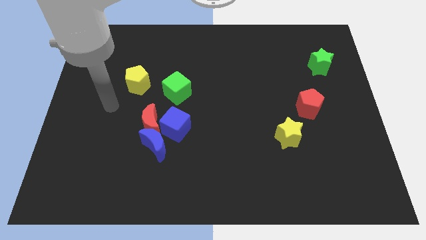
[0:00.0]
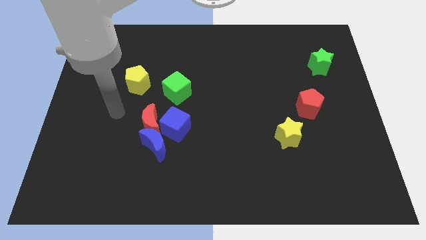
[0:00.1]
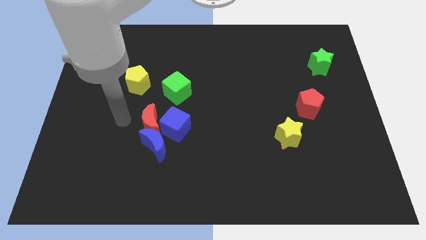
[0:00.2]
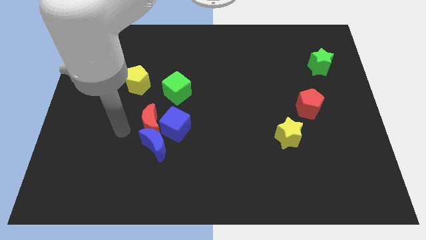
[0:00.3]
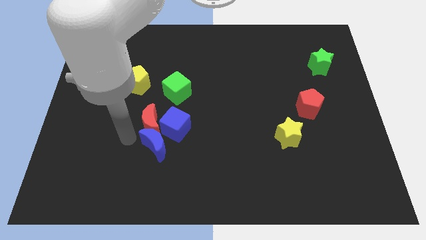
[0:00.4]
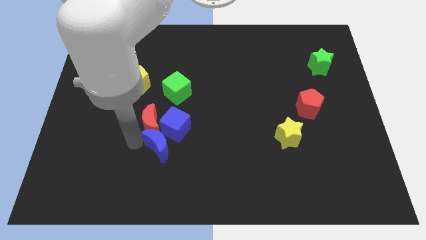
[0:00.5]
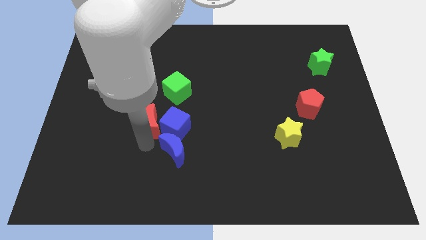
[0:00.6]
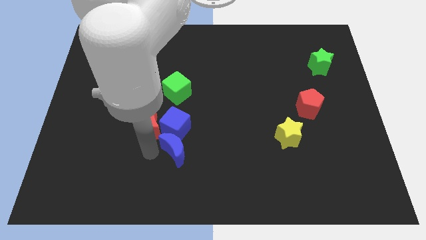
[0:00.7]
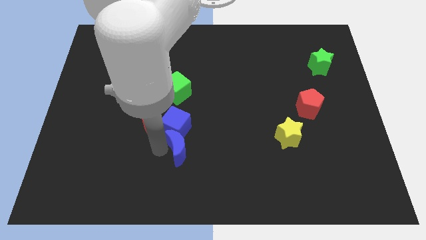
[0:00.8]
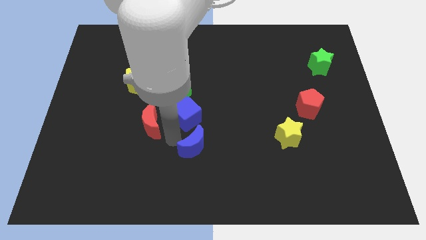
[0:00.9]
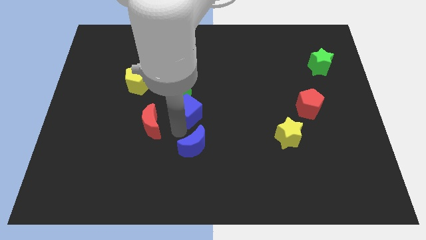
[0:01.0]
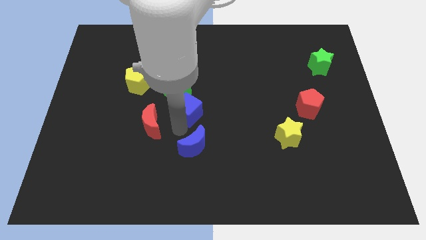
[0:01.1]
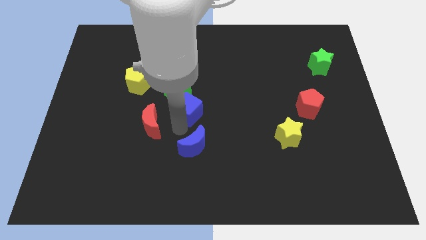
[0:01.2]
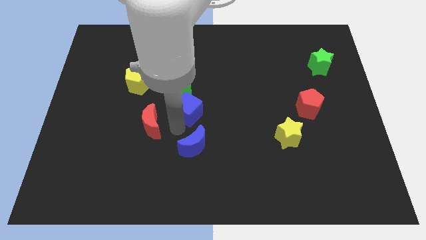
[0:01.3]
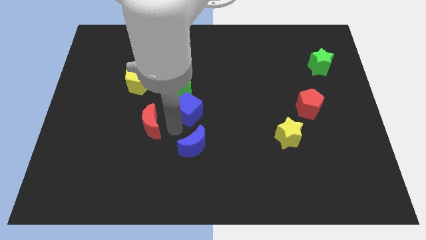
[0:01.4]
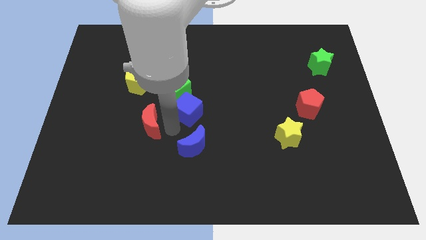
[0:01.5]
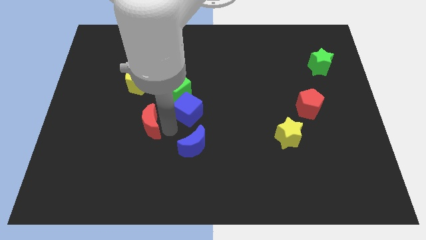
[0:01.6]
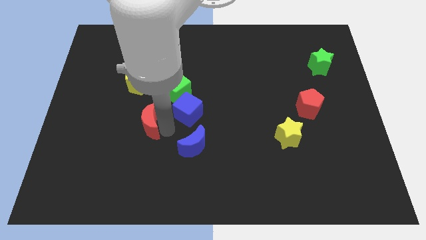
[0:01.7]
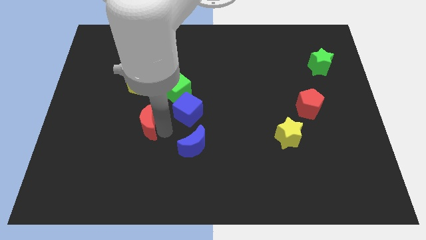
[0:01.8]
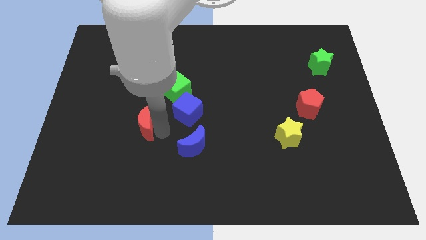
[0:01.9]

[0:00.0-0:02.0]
move the red moon away from the blue cube and blue moon

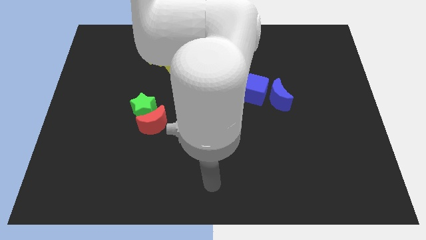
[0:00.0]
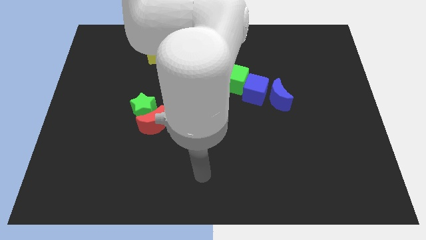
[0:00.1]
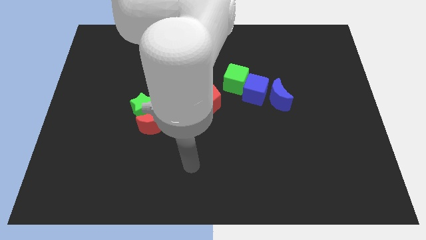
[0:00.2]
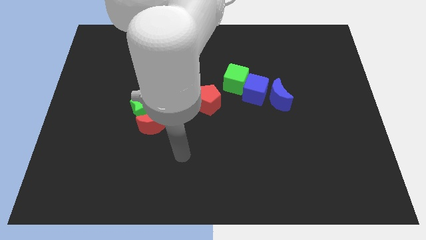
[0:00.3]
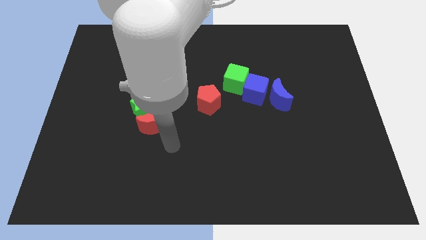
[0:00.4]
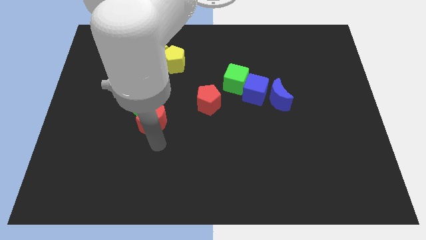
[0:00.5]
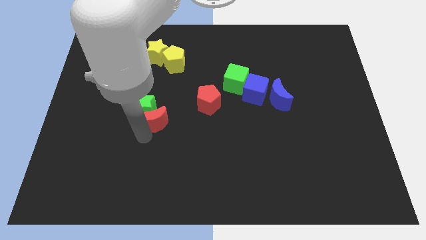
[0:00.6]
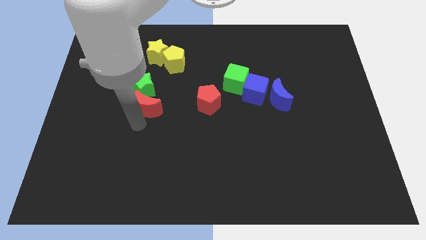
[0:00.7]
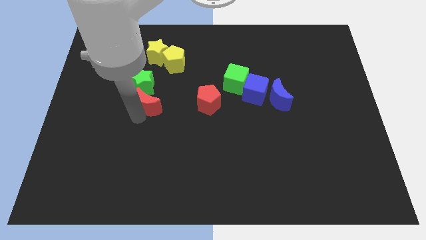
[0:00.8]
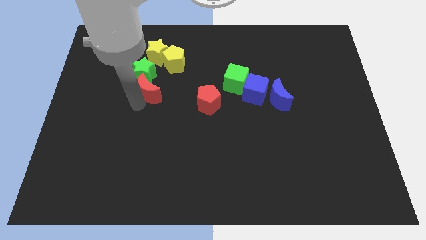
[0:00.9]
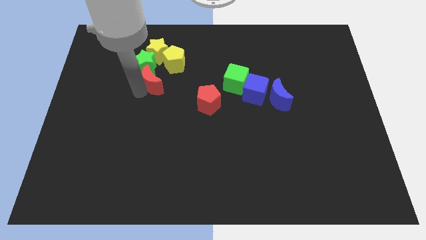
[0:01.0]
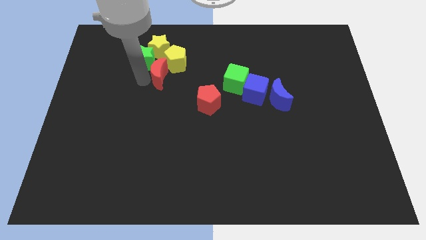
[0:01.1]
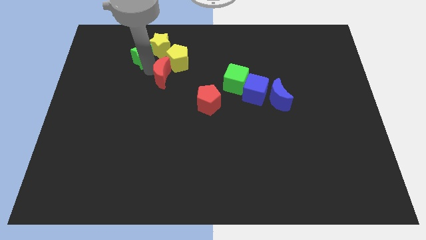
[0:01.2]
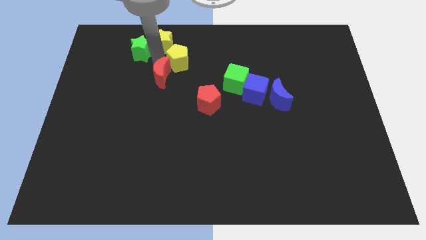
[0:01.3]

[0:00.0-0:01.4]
pull the red moon apart from the green star

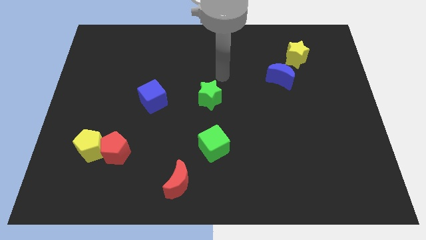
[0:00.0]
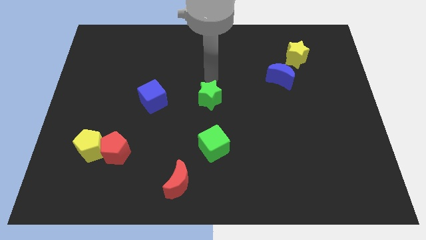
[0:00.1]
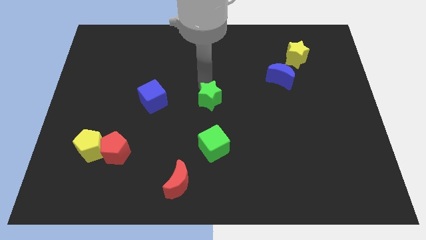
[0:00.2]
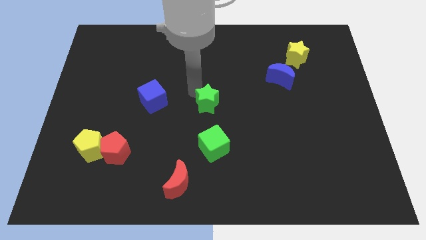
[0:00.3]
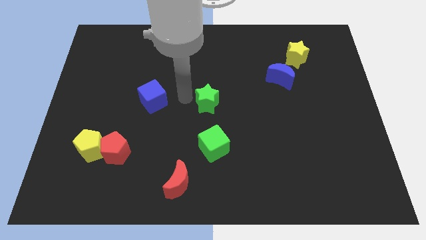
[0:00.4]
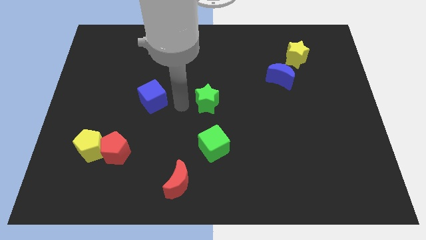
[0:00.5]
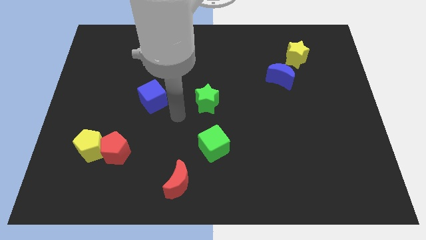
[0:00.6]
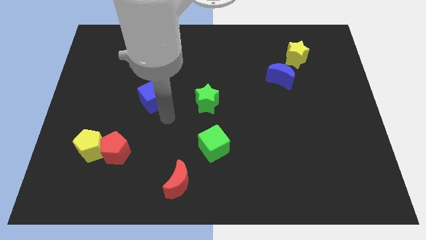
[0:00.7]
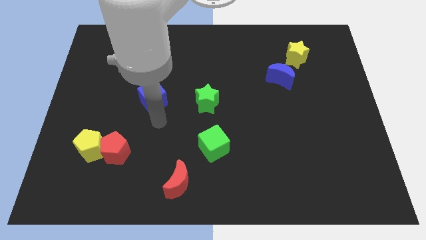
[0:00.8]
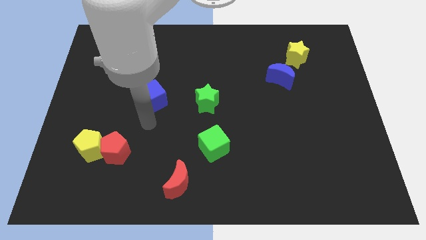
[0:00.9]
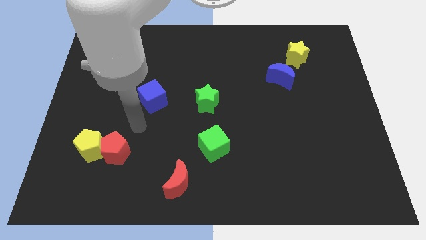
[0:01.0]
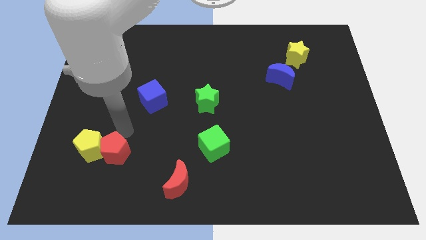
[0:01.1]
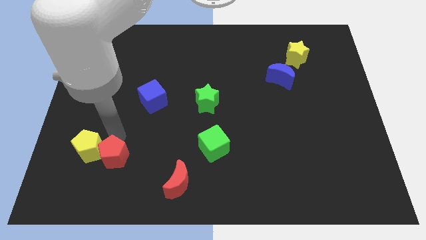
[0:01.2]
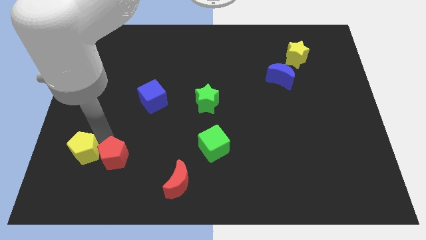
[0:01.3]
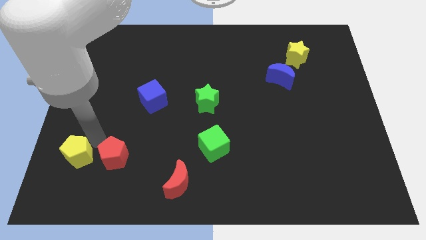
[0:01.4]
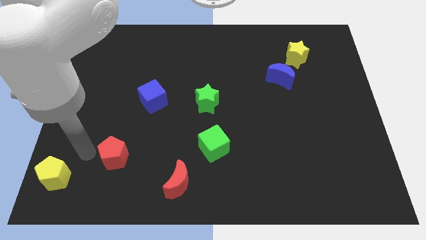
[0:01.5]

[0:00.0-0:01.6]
separate the red pentagon from the yellow pentagon

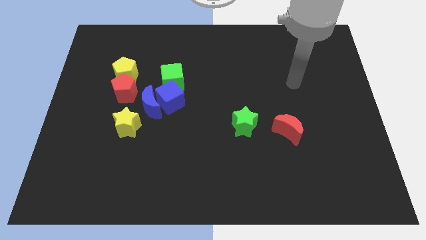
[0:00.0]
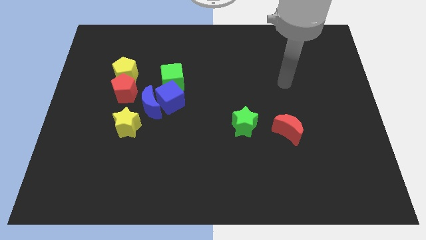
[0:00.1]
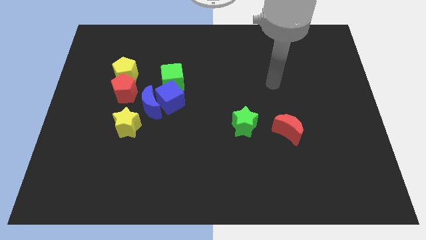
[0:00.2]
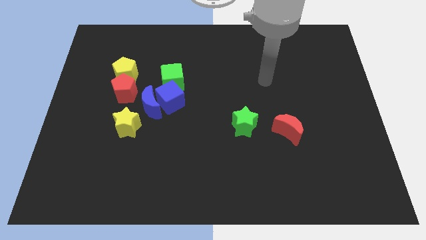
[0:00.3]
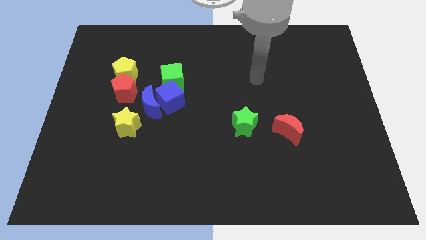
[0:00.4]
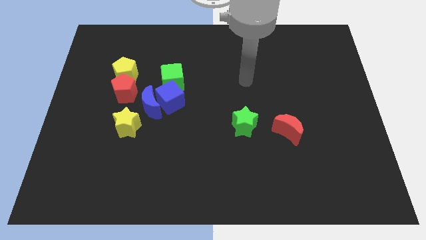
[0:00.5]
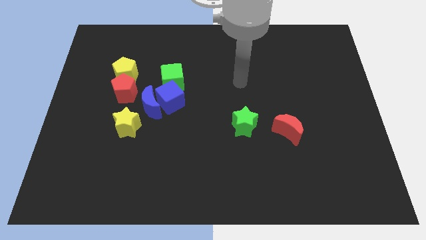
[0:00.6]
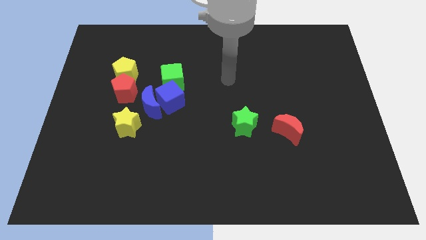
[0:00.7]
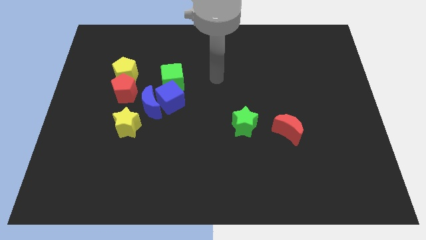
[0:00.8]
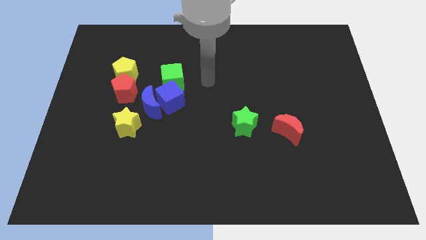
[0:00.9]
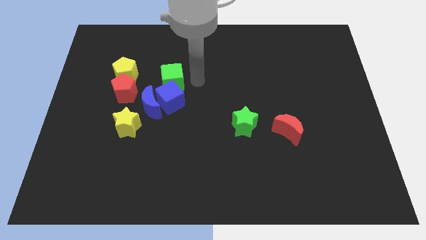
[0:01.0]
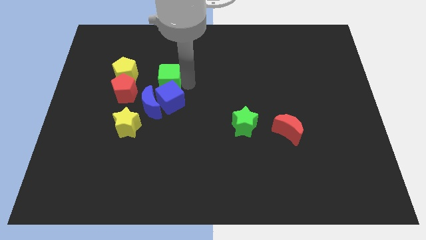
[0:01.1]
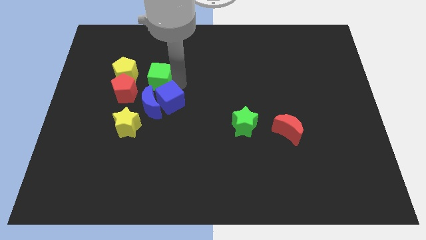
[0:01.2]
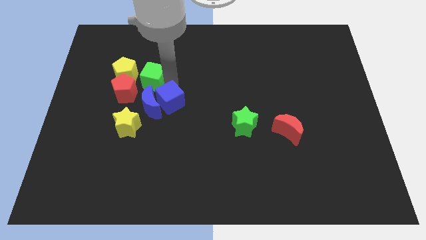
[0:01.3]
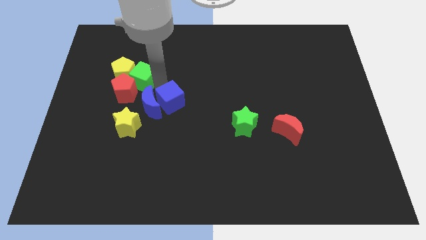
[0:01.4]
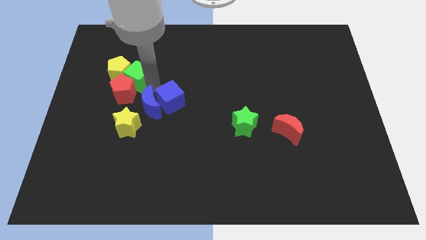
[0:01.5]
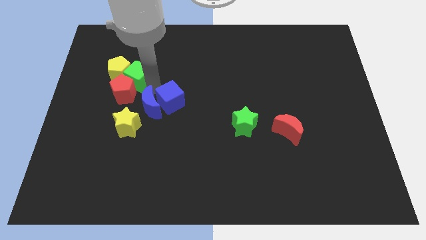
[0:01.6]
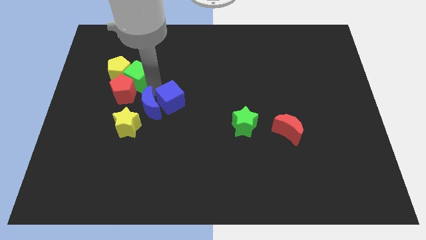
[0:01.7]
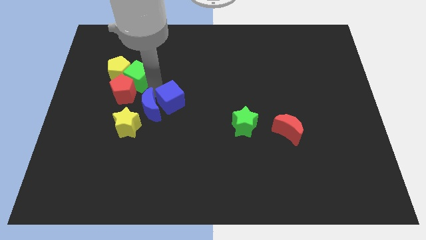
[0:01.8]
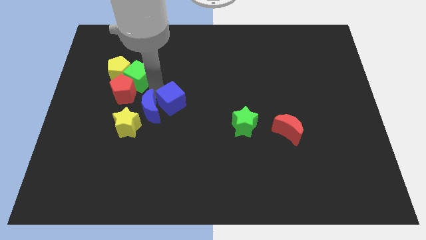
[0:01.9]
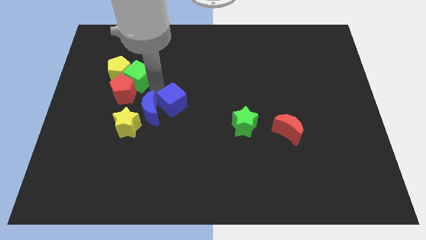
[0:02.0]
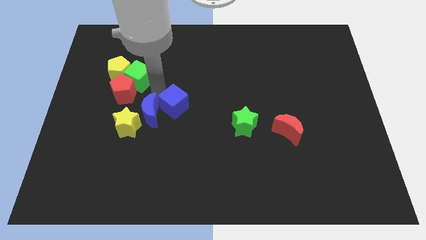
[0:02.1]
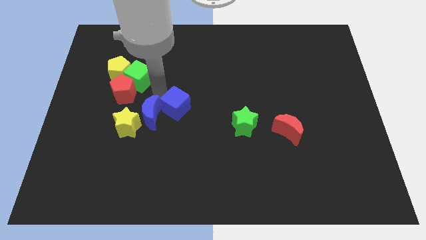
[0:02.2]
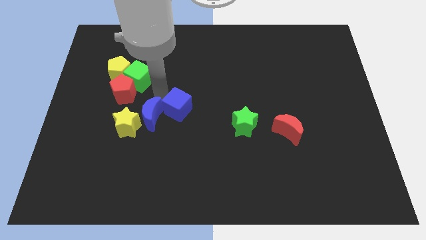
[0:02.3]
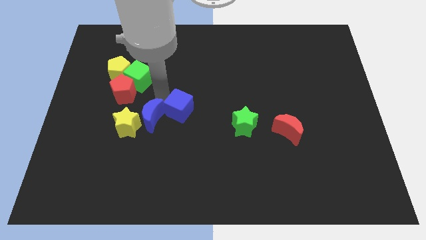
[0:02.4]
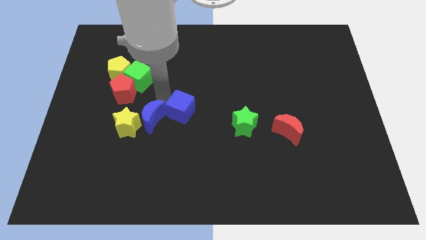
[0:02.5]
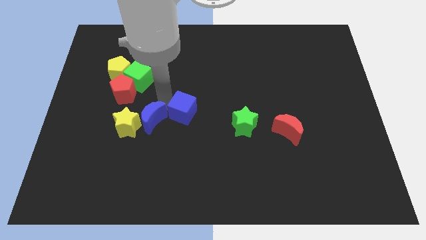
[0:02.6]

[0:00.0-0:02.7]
pull the blue cube apart from the blue moon and green cube

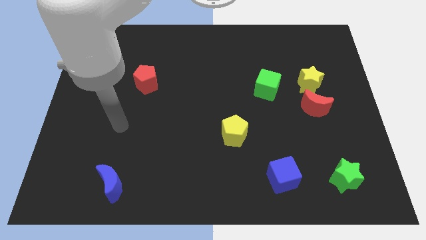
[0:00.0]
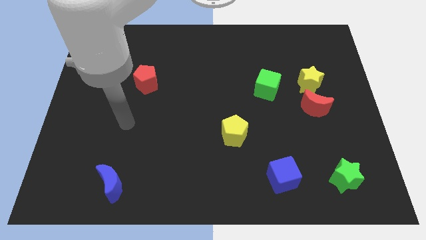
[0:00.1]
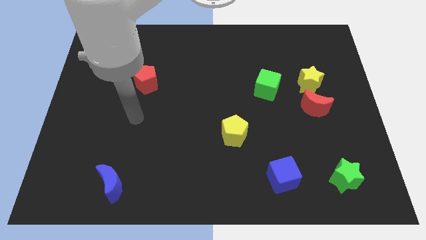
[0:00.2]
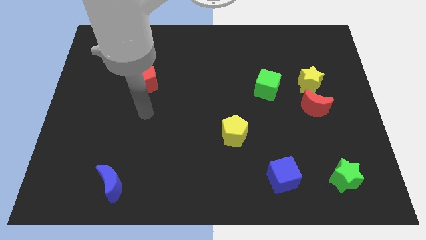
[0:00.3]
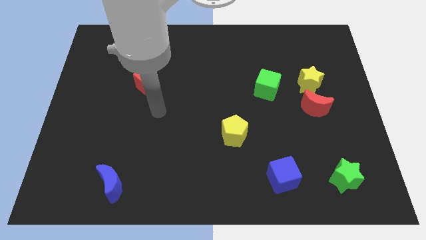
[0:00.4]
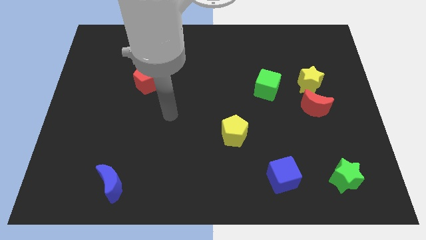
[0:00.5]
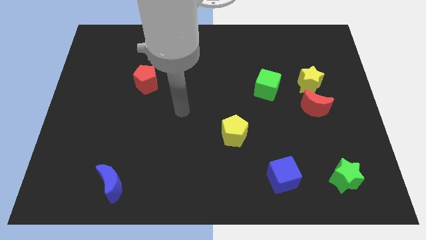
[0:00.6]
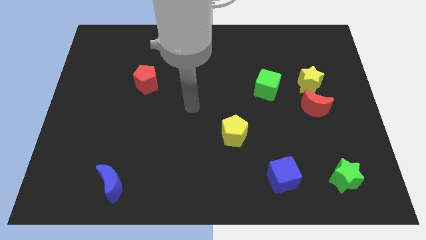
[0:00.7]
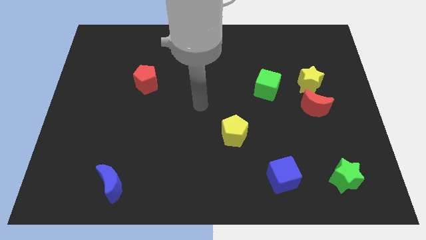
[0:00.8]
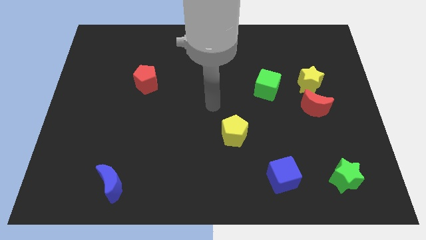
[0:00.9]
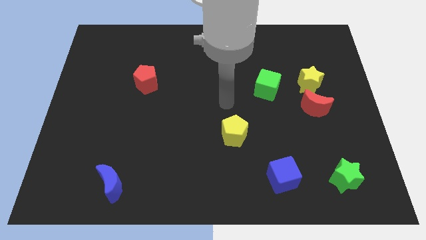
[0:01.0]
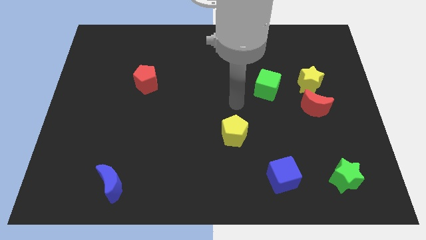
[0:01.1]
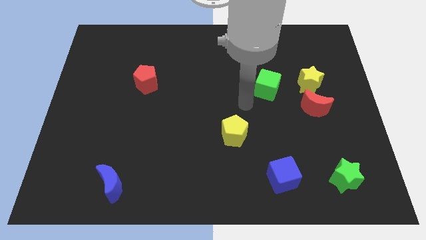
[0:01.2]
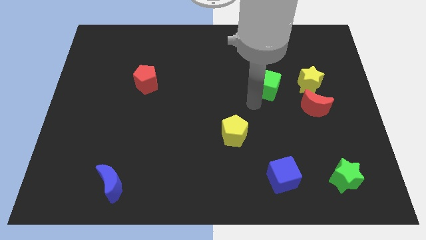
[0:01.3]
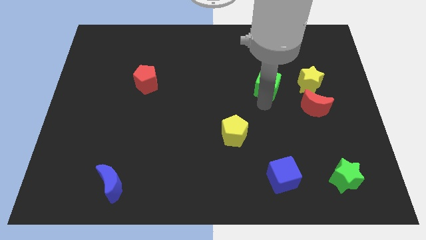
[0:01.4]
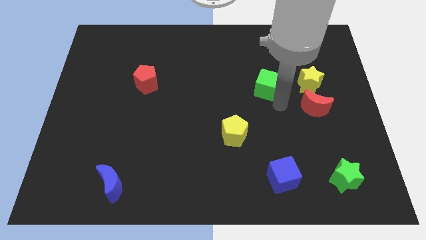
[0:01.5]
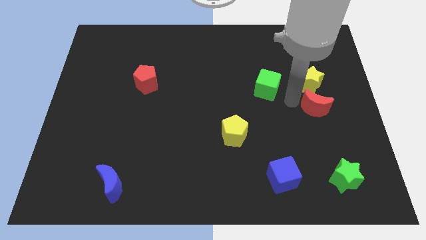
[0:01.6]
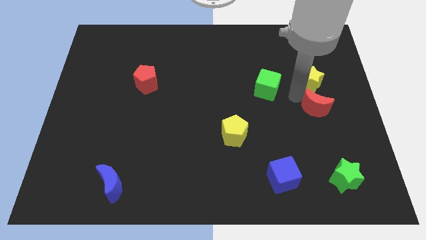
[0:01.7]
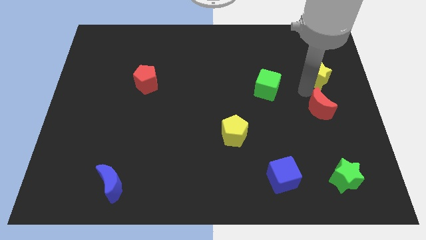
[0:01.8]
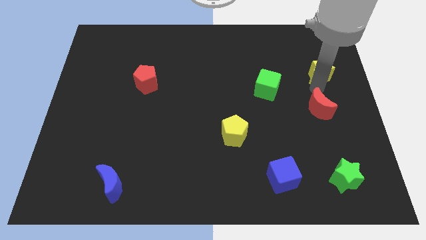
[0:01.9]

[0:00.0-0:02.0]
pull the red moon apart from the yellow star
